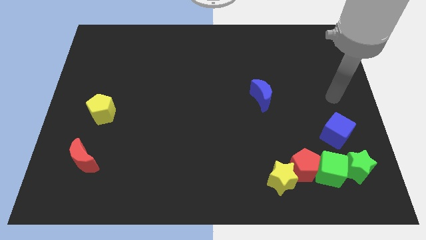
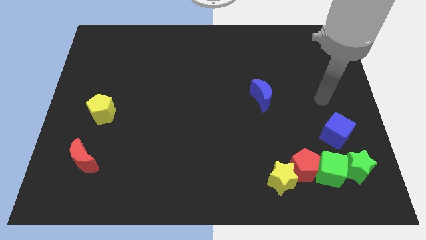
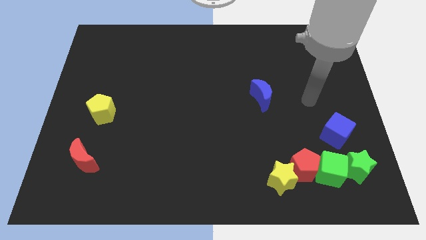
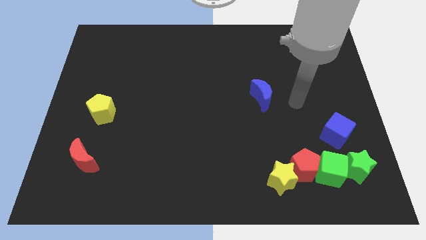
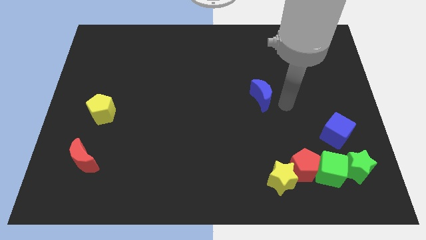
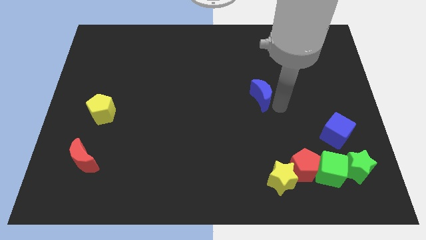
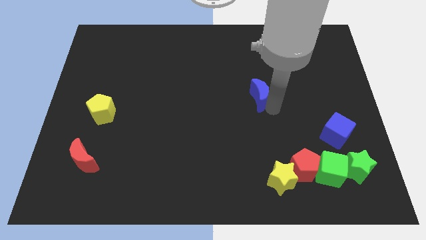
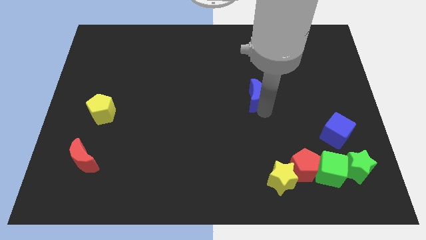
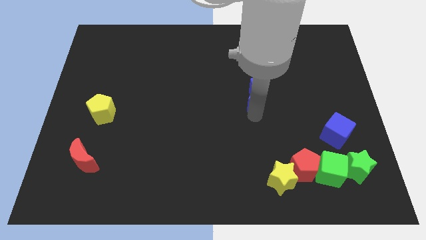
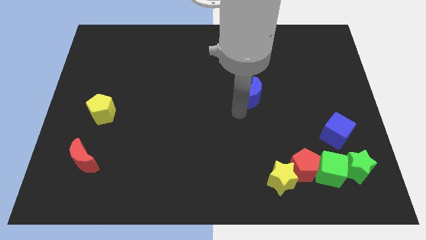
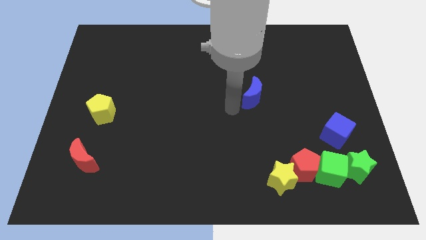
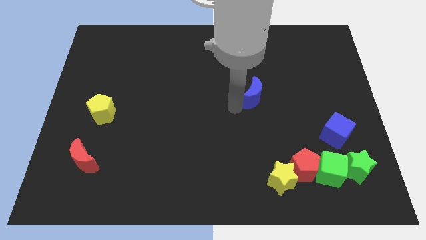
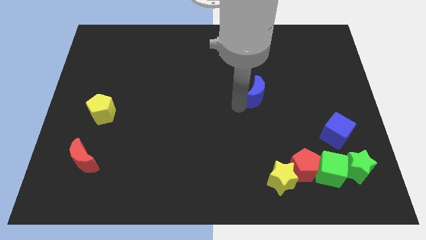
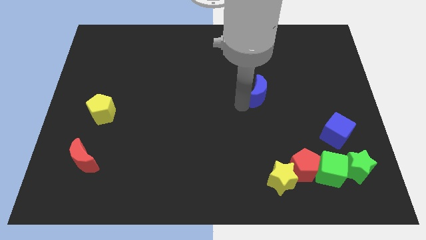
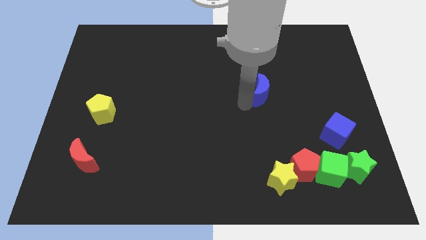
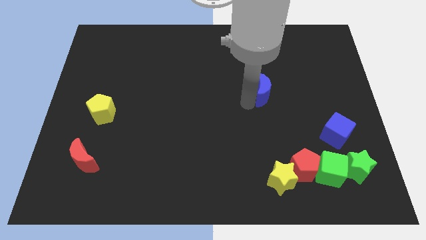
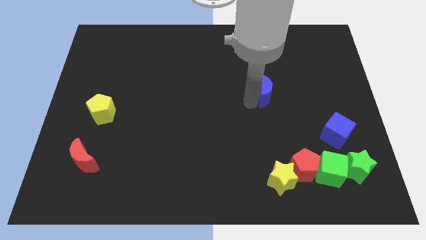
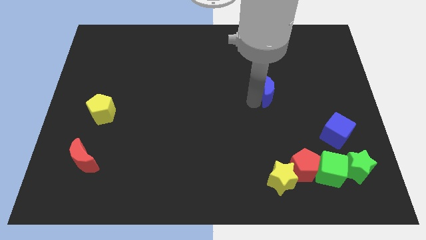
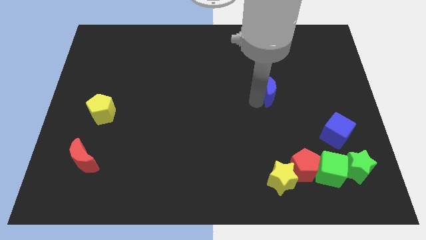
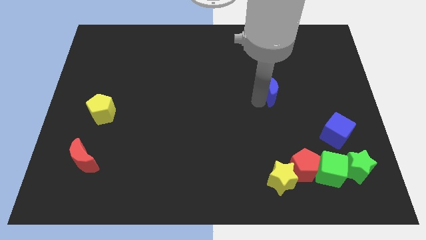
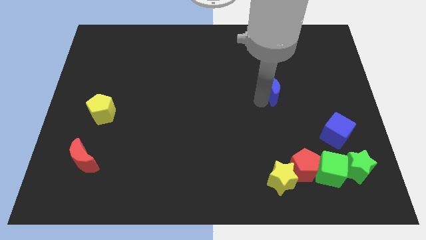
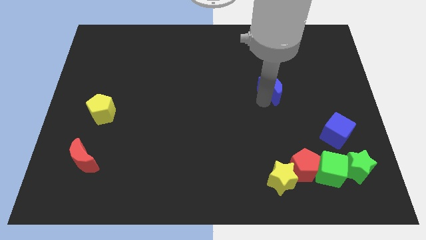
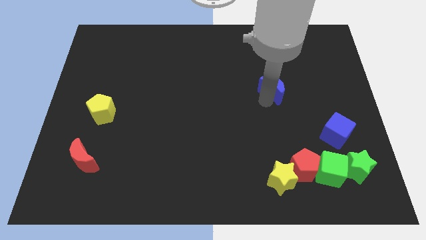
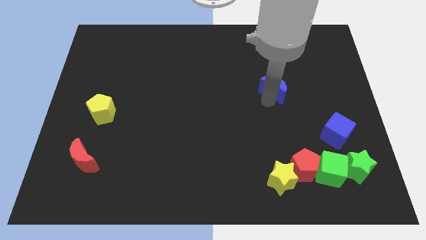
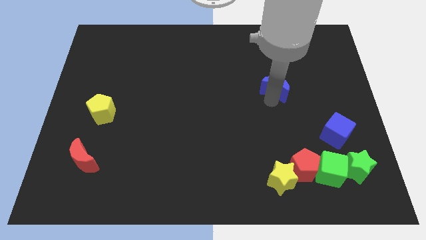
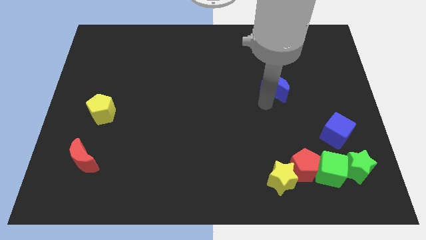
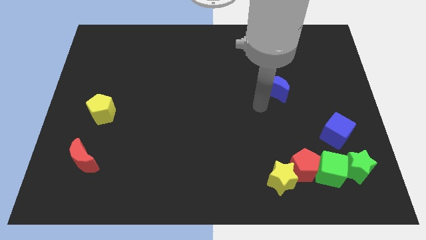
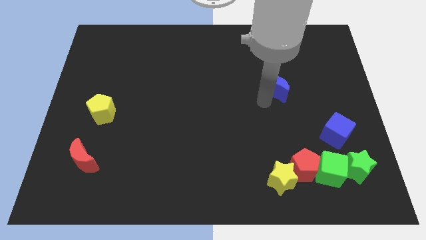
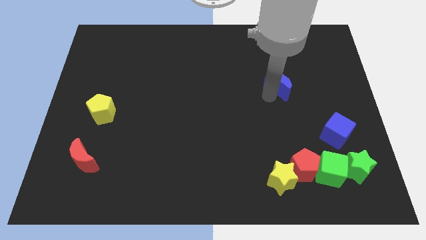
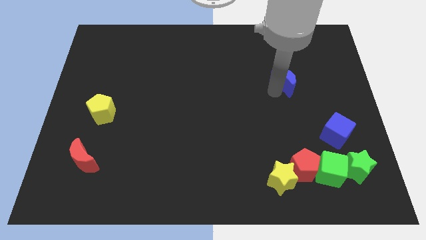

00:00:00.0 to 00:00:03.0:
push the blue moon diagonally up and right a bit

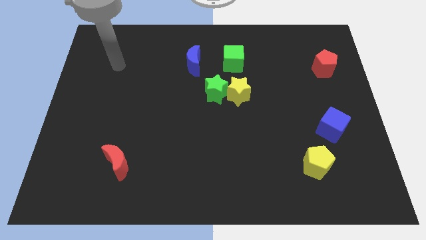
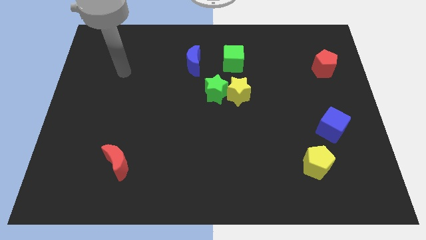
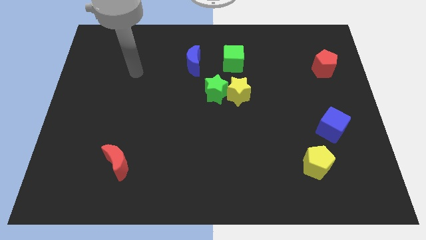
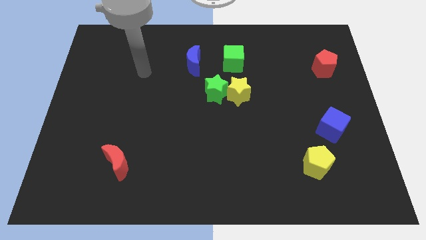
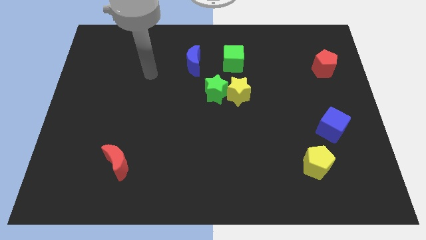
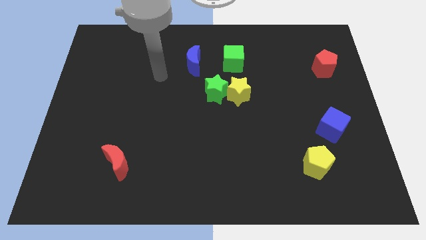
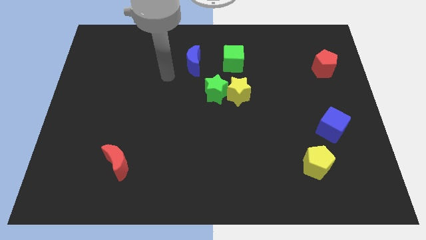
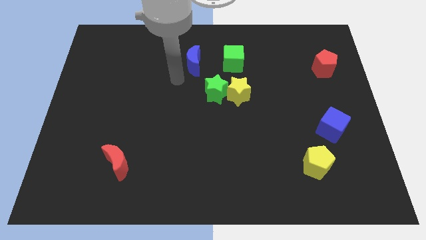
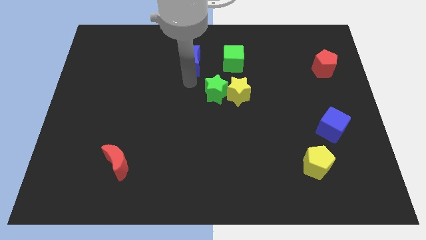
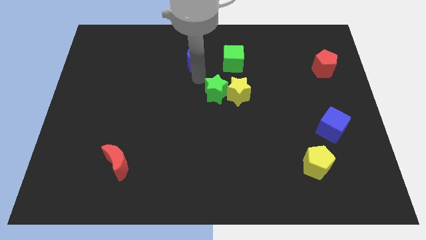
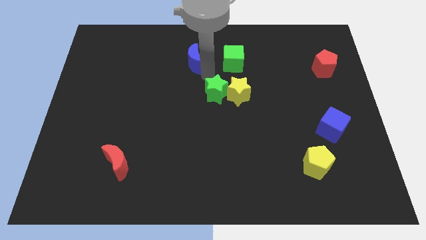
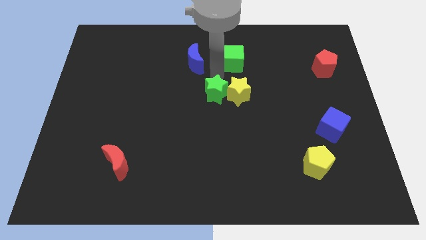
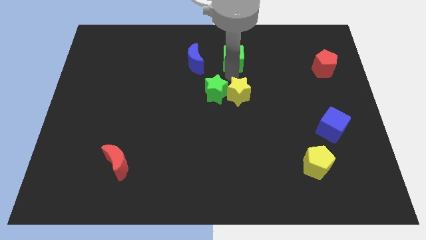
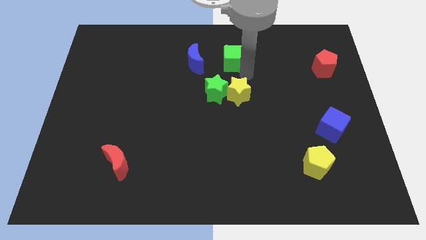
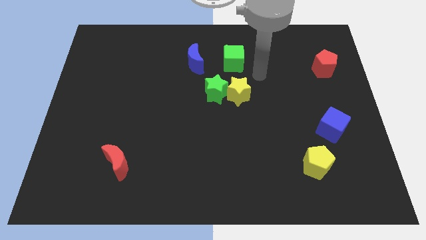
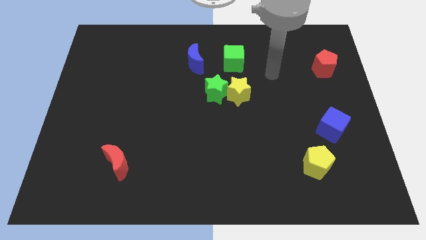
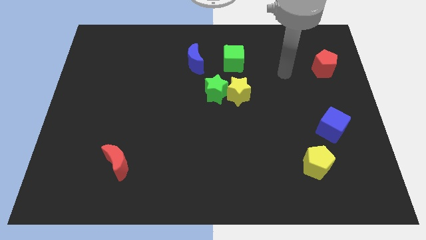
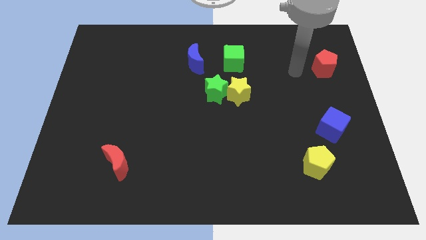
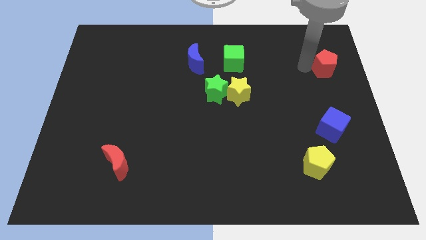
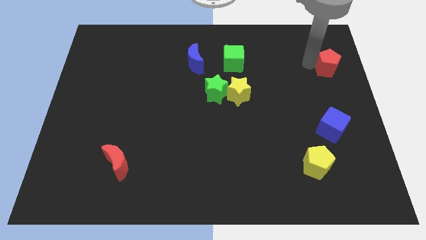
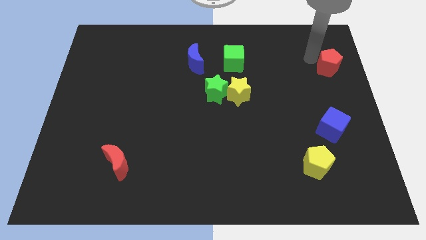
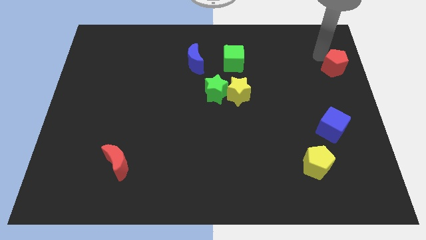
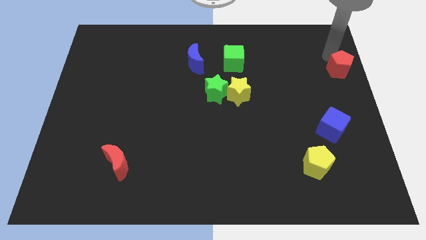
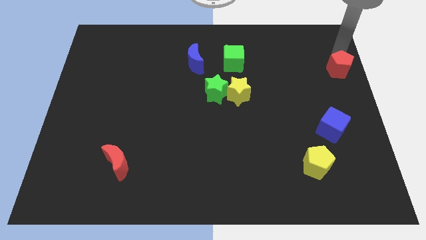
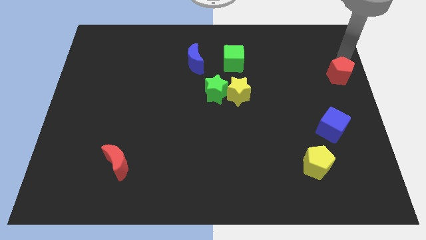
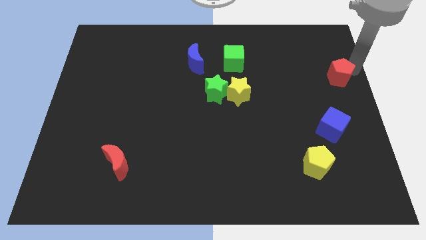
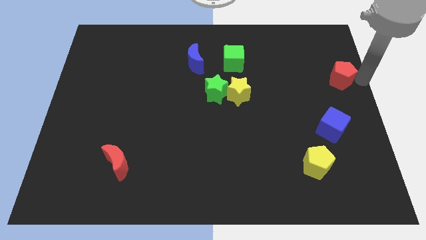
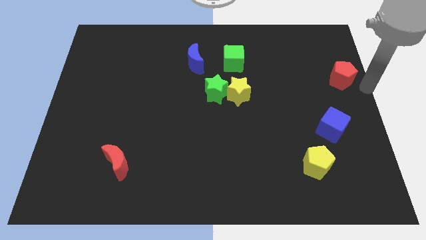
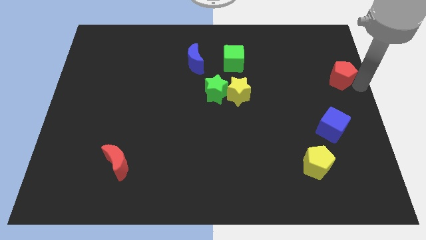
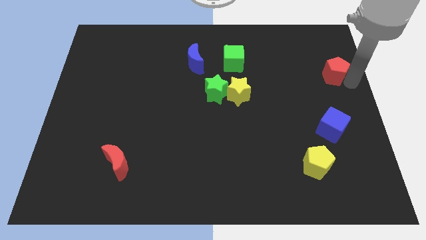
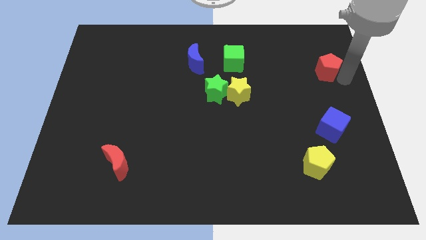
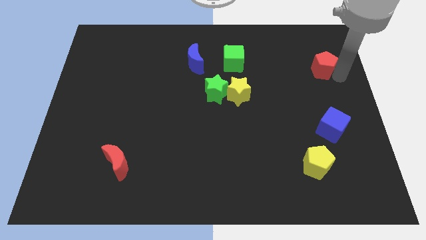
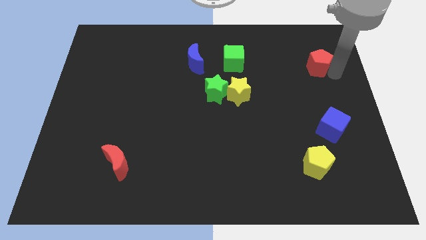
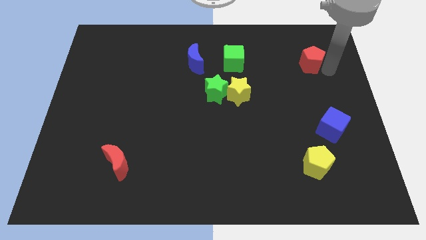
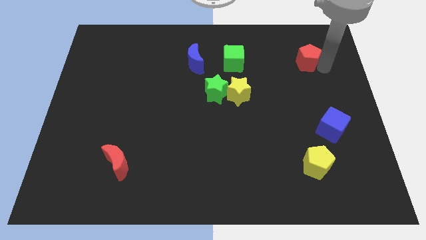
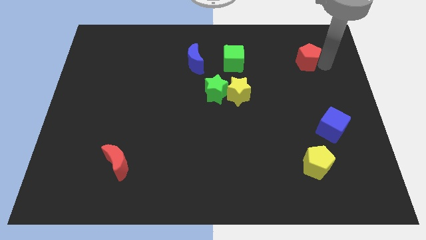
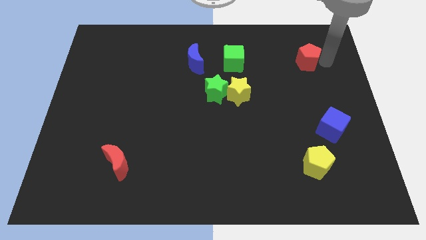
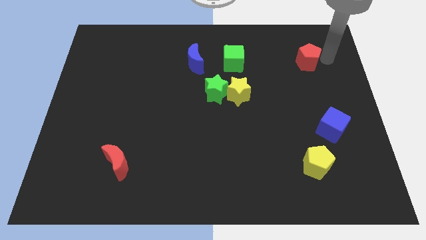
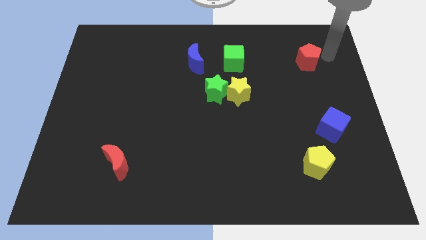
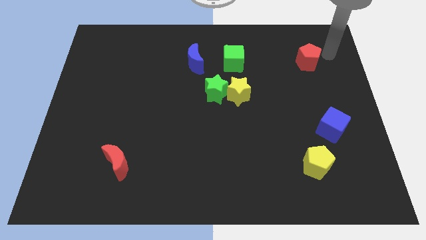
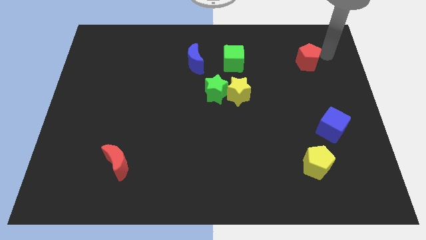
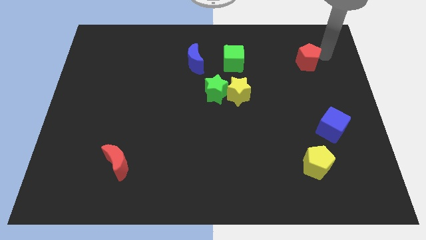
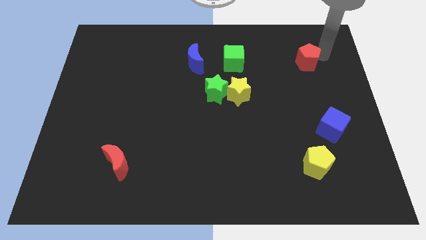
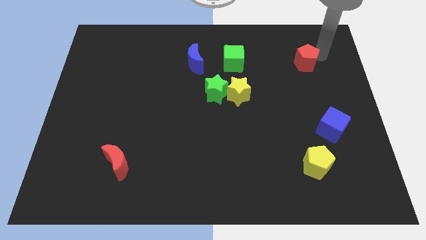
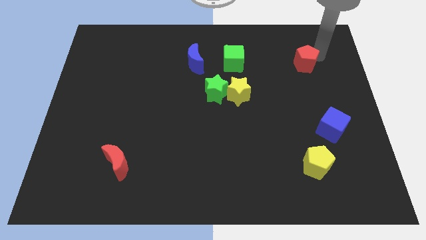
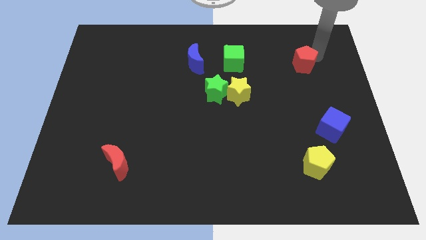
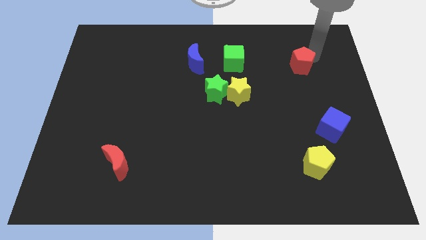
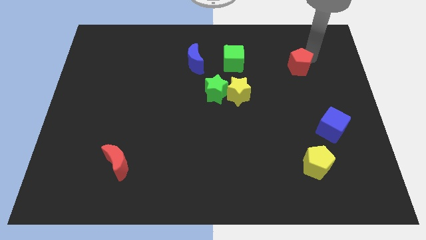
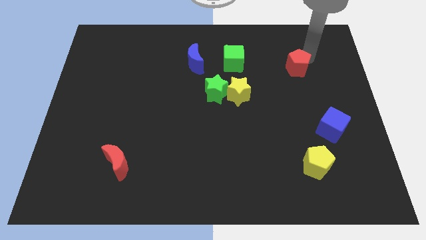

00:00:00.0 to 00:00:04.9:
push the red pentagon to the left somewhat
